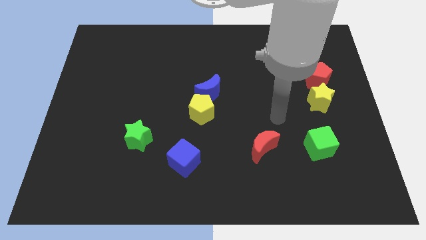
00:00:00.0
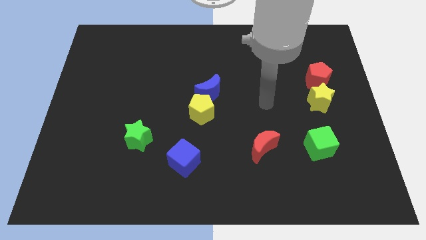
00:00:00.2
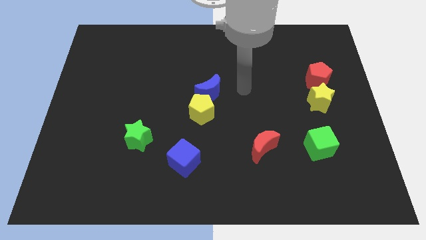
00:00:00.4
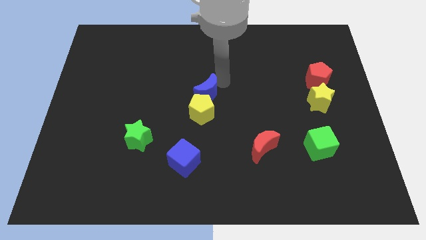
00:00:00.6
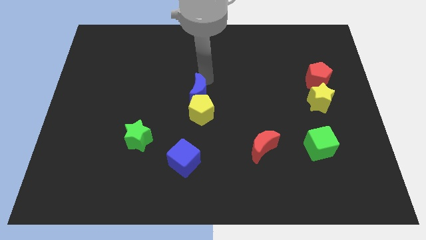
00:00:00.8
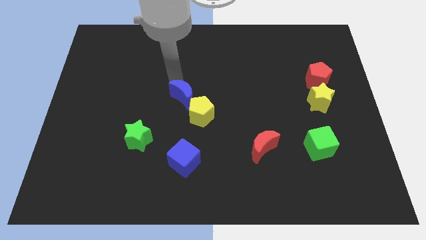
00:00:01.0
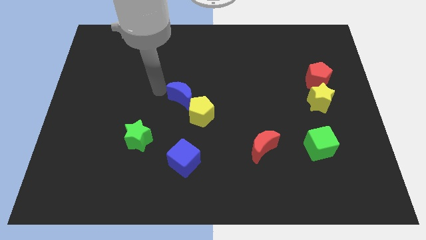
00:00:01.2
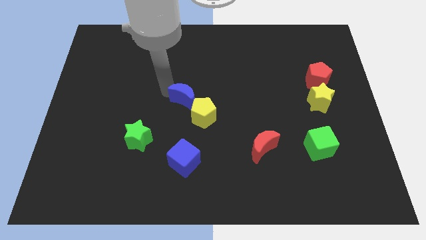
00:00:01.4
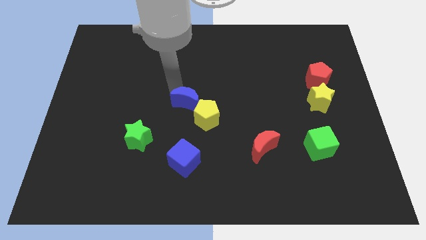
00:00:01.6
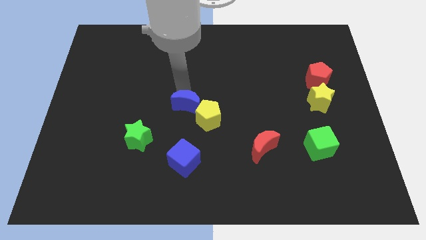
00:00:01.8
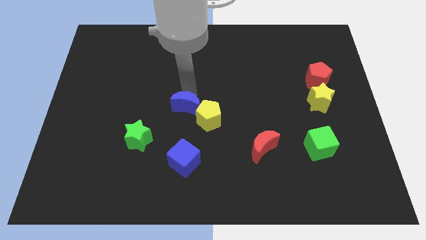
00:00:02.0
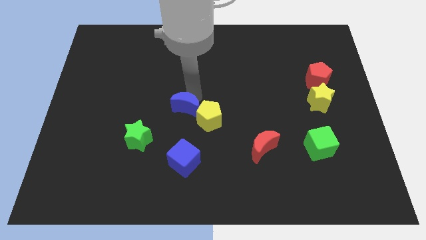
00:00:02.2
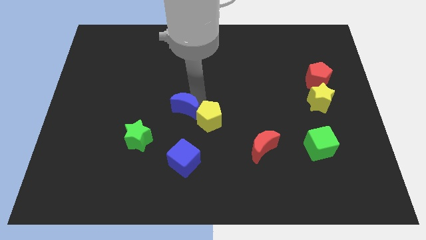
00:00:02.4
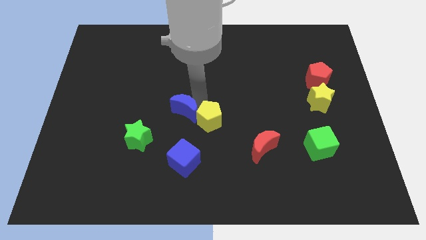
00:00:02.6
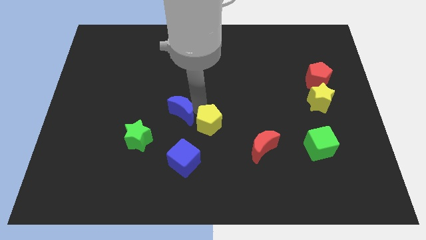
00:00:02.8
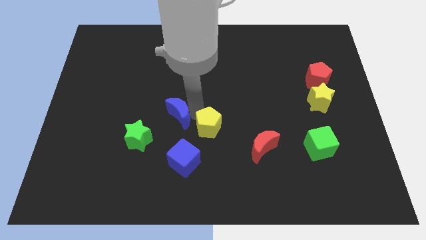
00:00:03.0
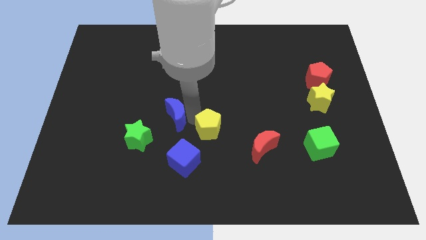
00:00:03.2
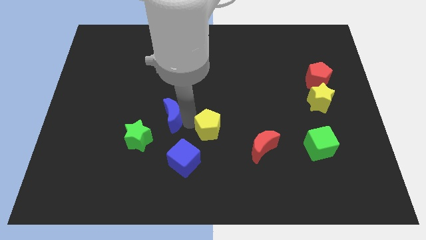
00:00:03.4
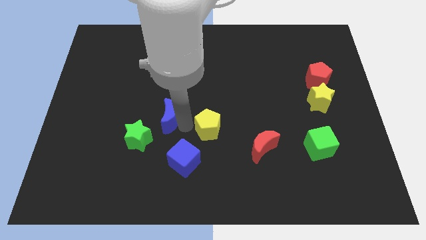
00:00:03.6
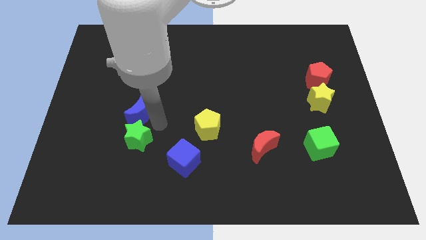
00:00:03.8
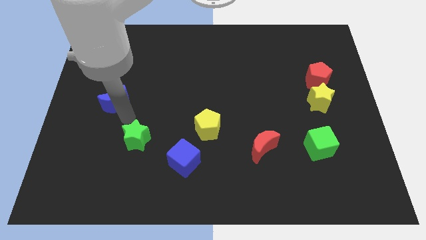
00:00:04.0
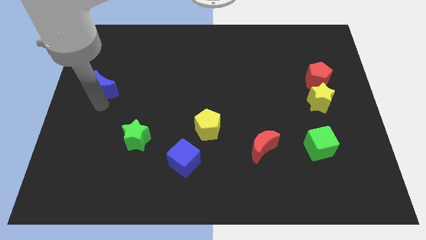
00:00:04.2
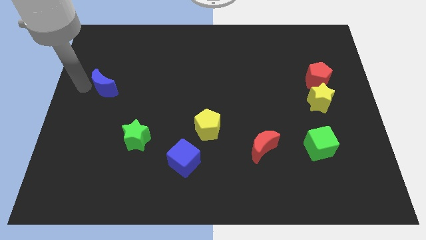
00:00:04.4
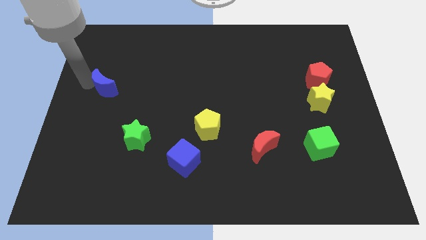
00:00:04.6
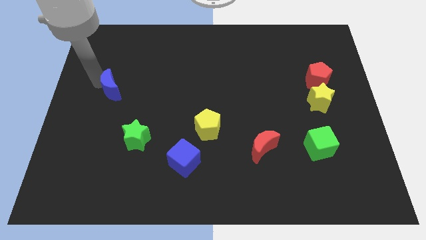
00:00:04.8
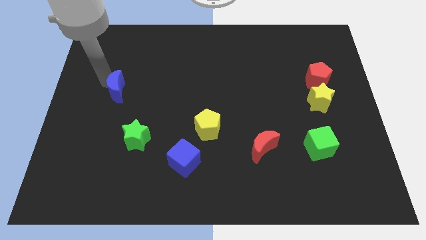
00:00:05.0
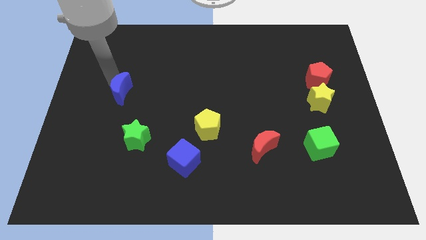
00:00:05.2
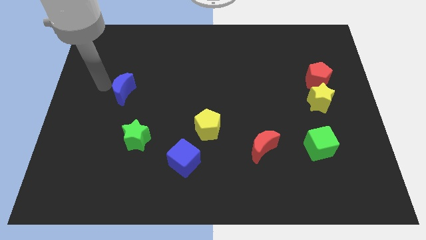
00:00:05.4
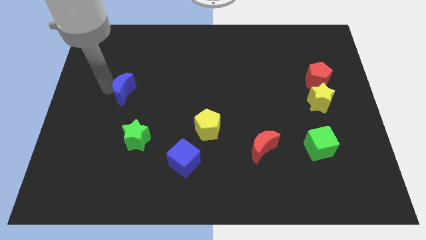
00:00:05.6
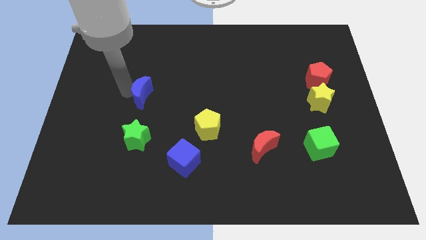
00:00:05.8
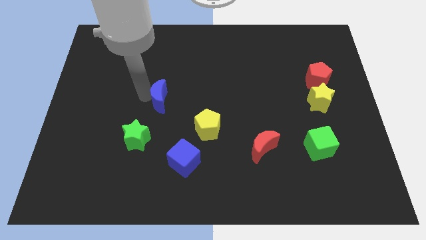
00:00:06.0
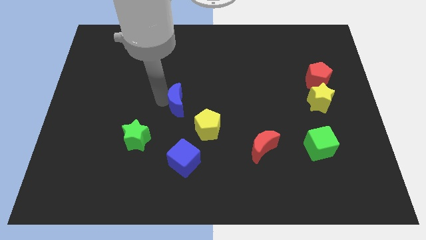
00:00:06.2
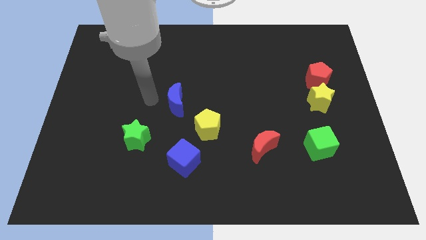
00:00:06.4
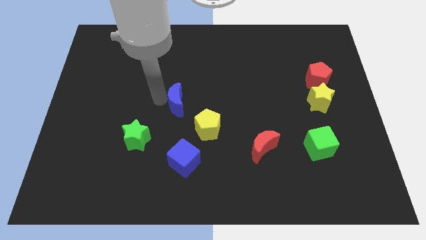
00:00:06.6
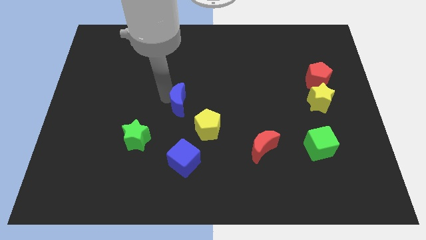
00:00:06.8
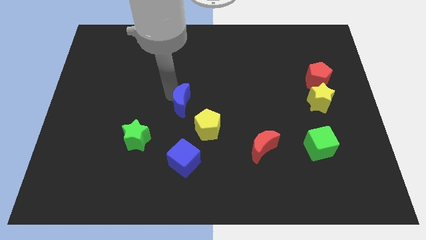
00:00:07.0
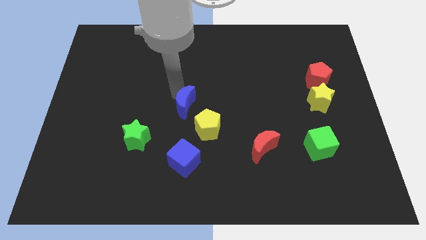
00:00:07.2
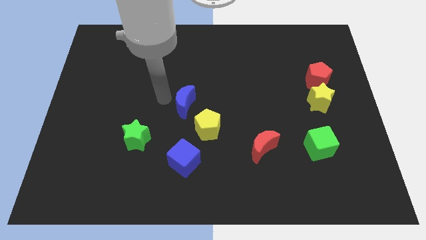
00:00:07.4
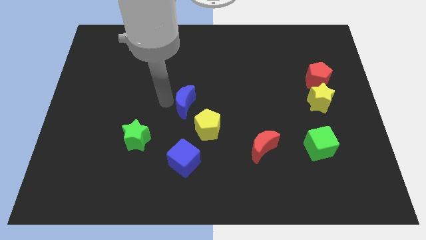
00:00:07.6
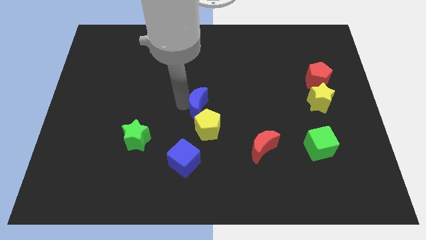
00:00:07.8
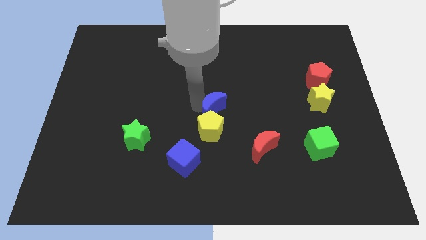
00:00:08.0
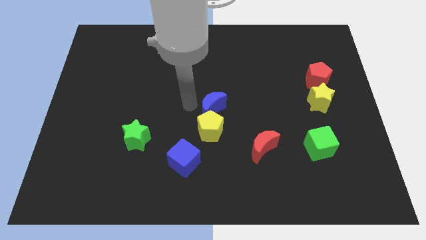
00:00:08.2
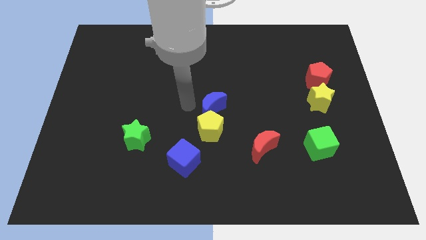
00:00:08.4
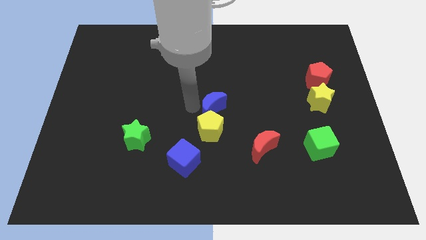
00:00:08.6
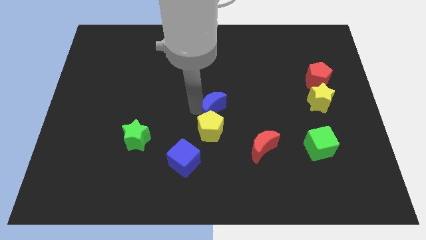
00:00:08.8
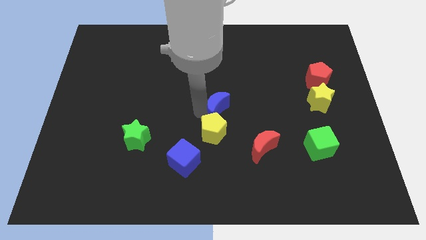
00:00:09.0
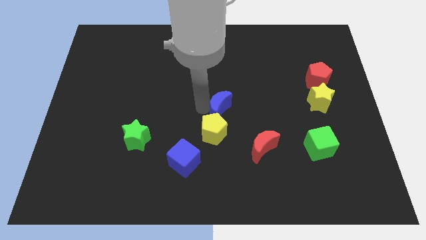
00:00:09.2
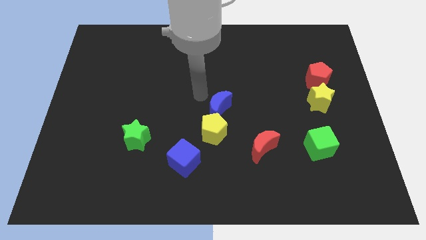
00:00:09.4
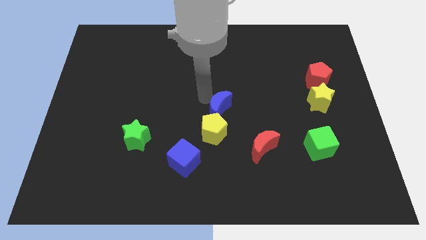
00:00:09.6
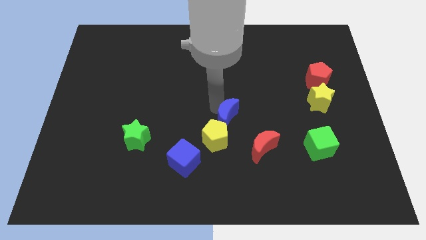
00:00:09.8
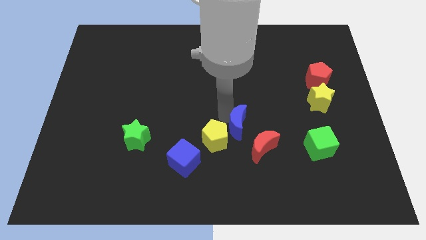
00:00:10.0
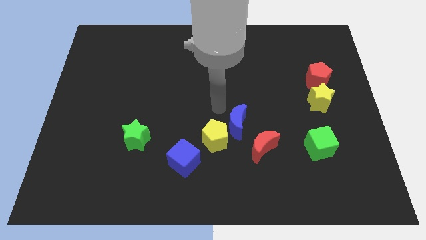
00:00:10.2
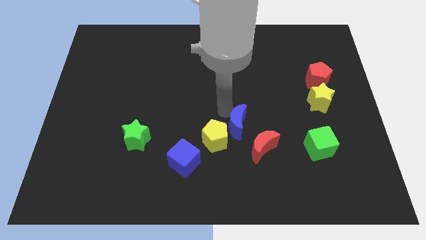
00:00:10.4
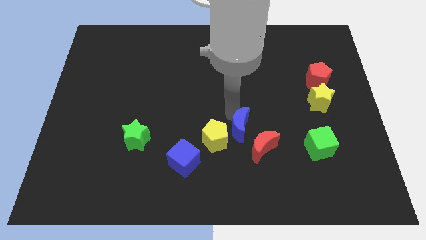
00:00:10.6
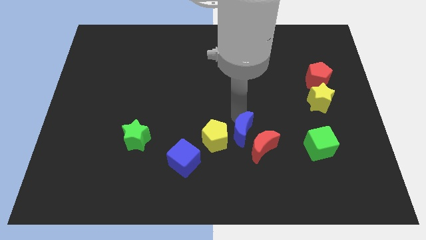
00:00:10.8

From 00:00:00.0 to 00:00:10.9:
put the blue moon close to the red moon

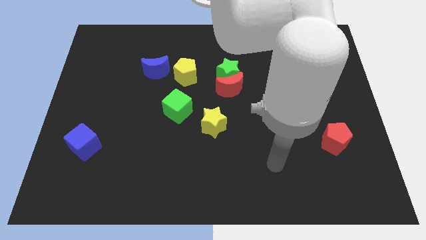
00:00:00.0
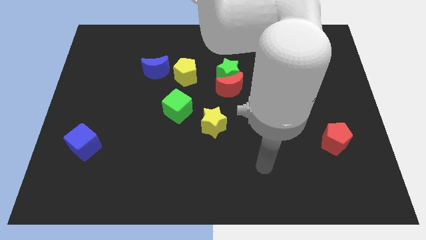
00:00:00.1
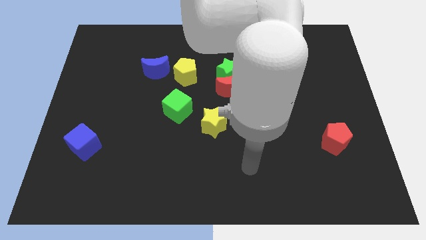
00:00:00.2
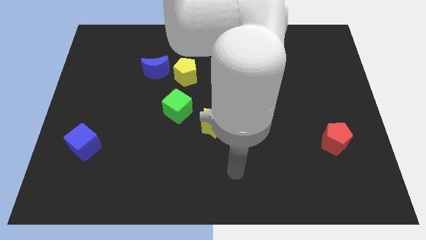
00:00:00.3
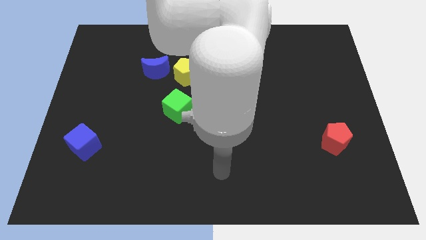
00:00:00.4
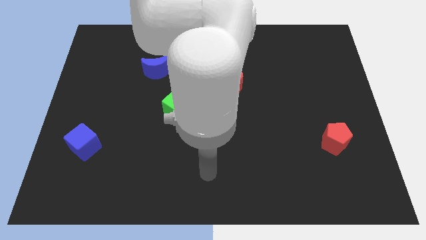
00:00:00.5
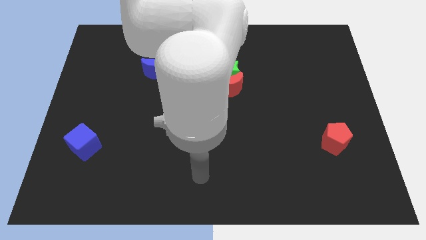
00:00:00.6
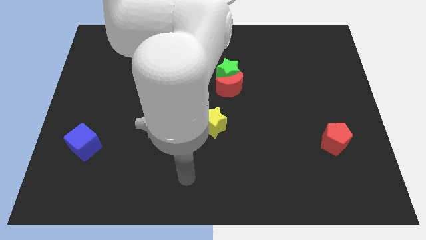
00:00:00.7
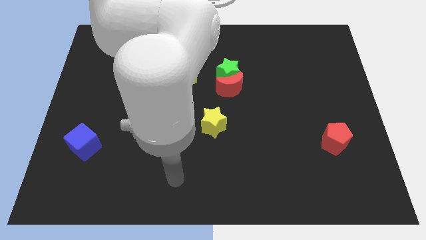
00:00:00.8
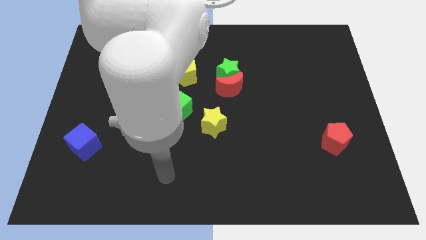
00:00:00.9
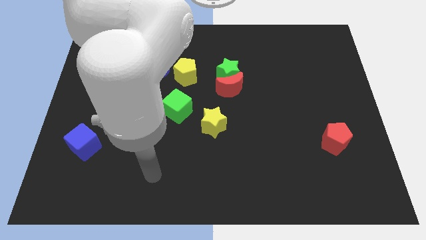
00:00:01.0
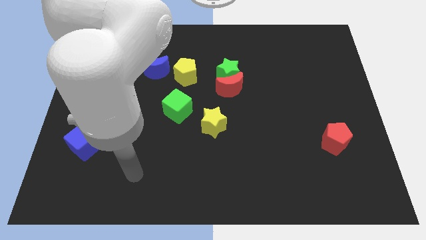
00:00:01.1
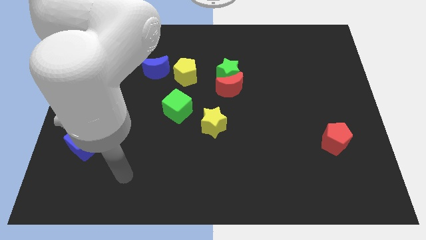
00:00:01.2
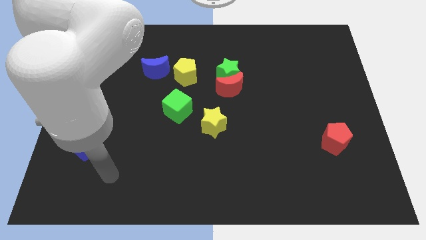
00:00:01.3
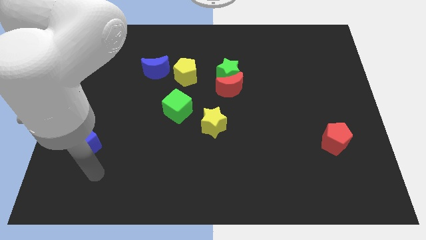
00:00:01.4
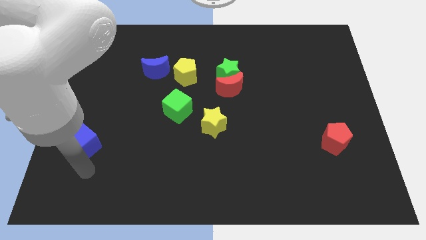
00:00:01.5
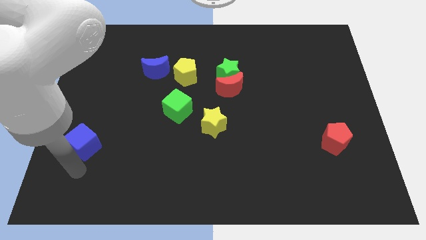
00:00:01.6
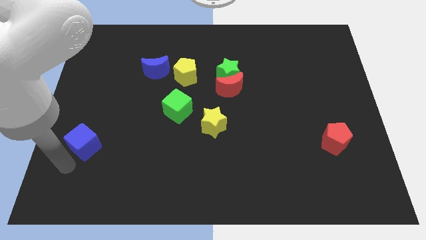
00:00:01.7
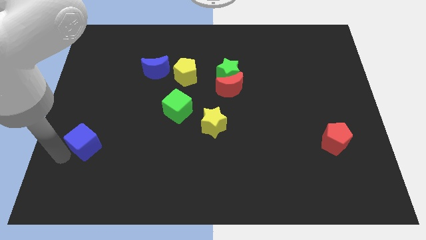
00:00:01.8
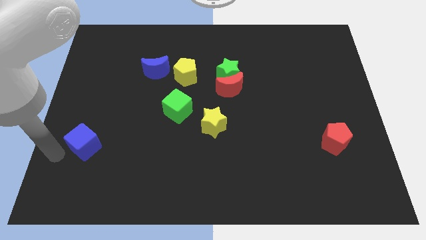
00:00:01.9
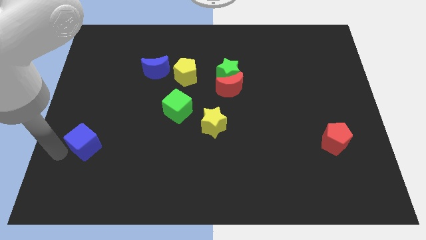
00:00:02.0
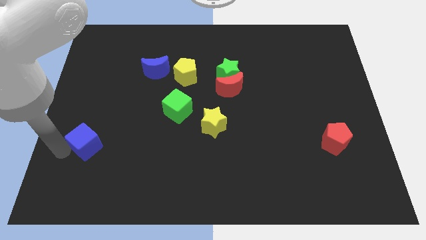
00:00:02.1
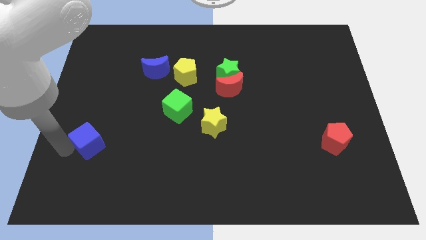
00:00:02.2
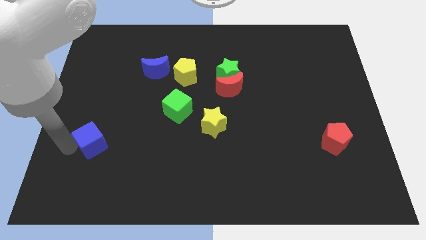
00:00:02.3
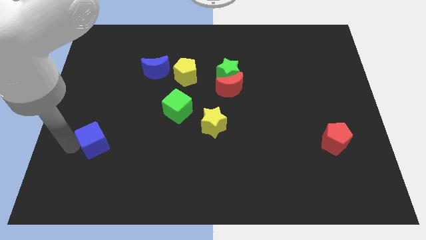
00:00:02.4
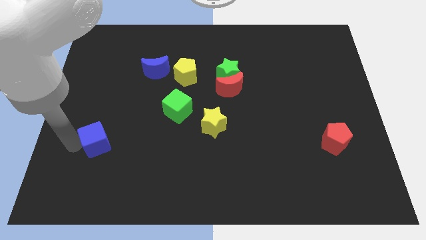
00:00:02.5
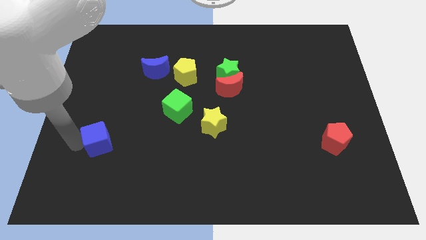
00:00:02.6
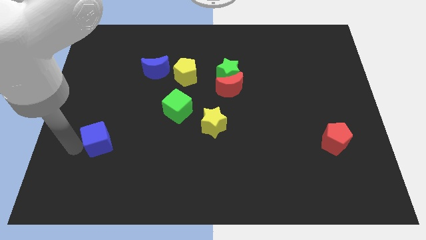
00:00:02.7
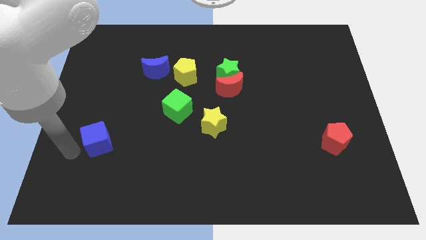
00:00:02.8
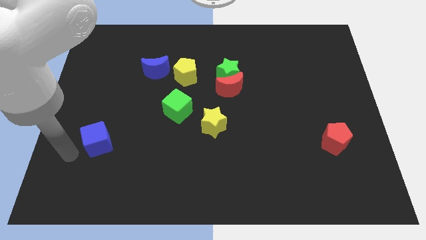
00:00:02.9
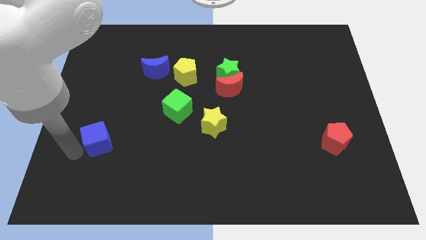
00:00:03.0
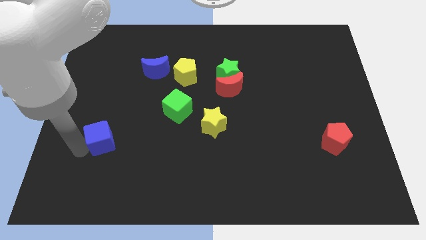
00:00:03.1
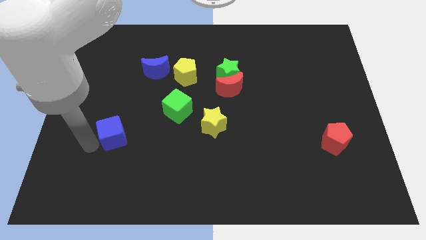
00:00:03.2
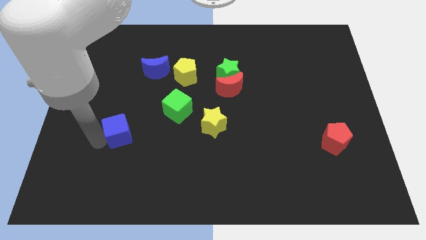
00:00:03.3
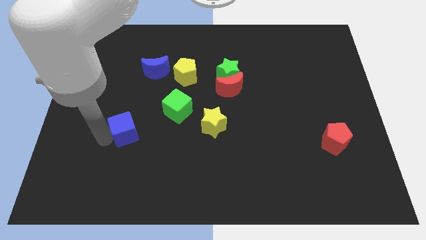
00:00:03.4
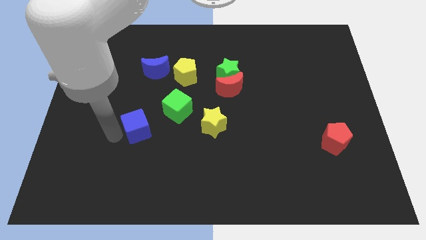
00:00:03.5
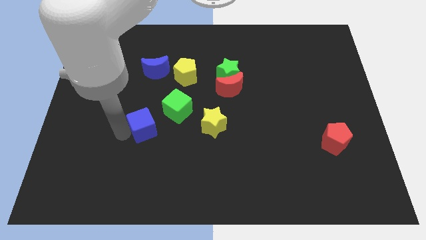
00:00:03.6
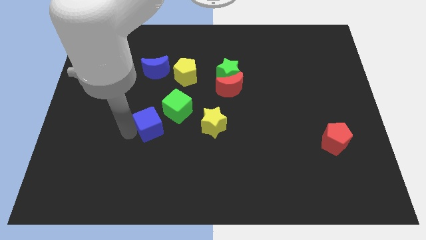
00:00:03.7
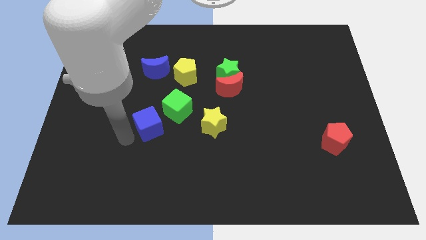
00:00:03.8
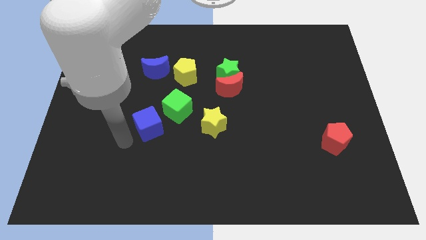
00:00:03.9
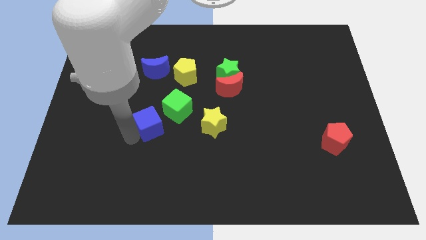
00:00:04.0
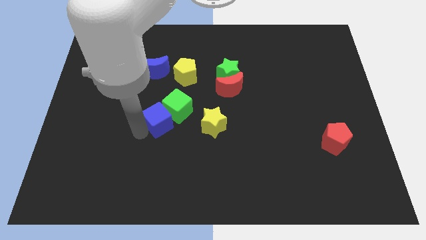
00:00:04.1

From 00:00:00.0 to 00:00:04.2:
put the blue cube next to the green cube
